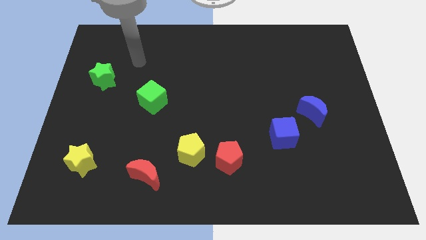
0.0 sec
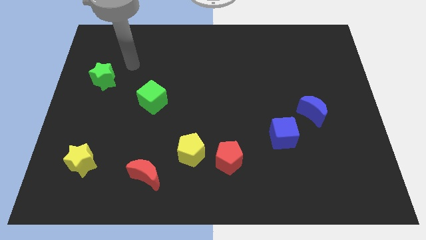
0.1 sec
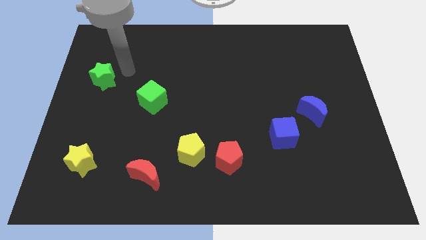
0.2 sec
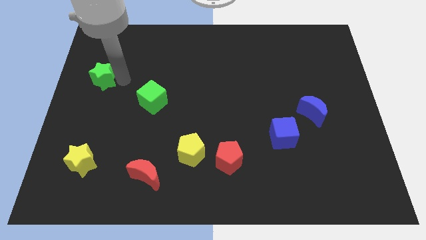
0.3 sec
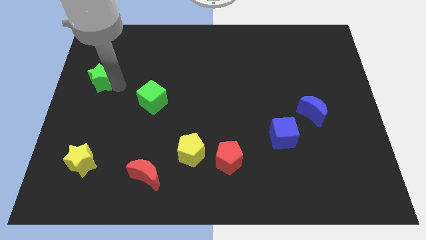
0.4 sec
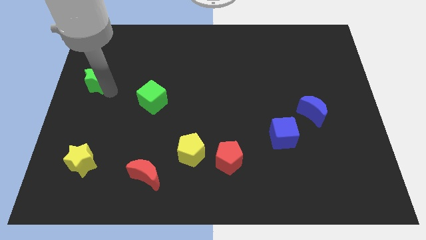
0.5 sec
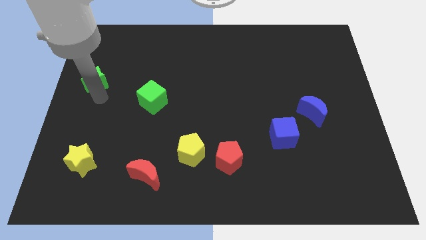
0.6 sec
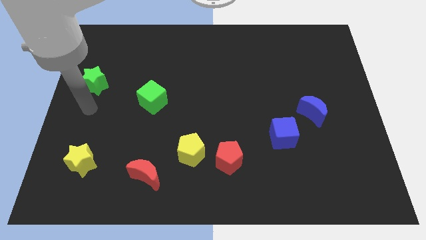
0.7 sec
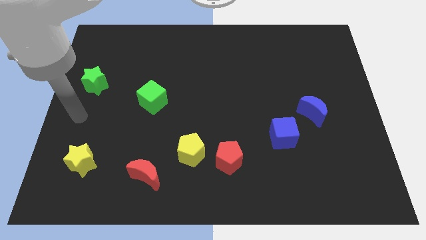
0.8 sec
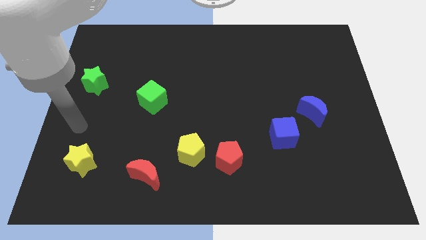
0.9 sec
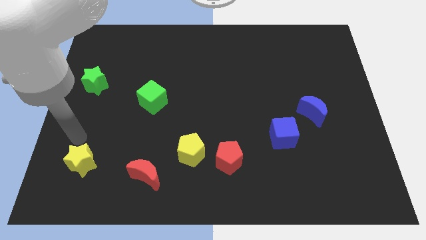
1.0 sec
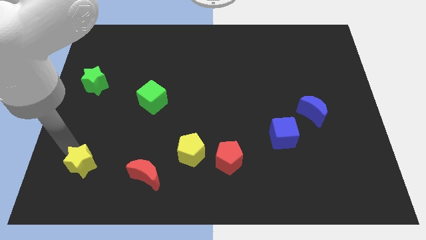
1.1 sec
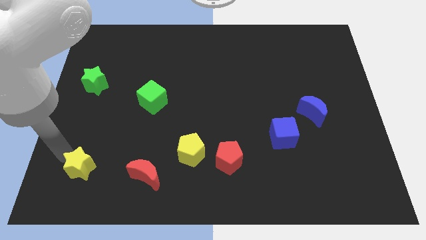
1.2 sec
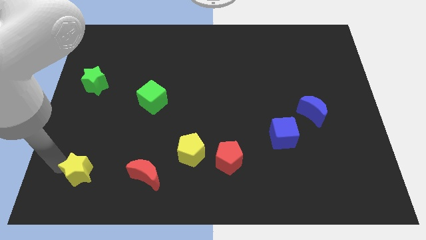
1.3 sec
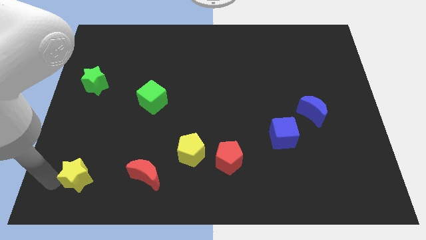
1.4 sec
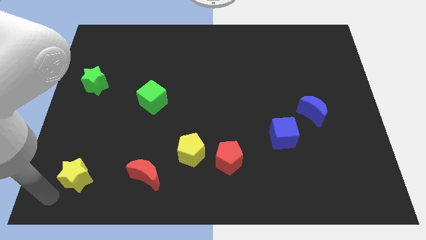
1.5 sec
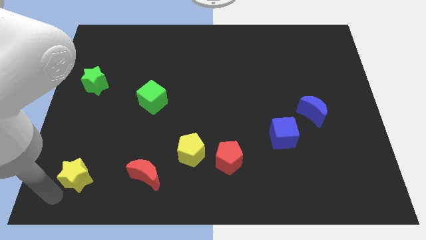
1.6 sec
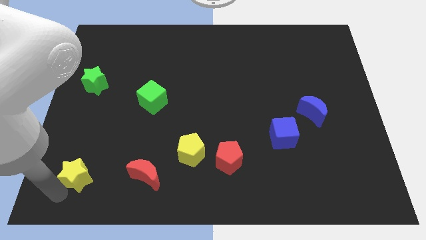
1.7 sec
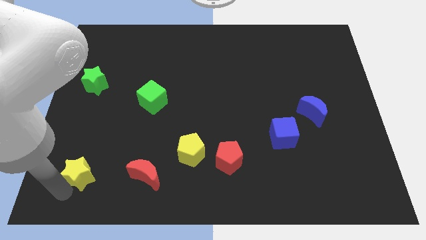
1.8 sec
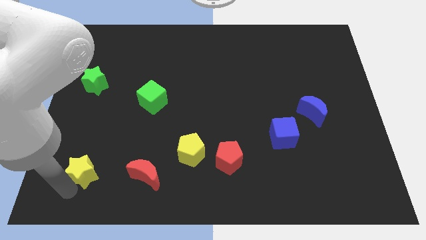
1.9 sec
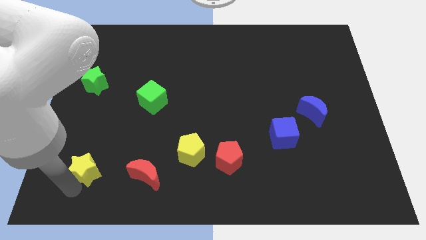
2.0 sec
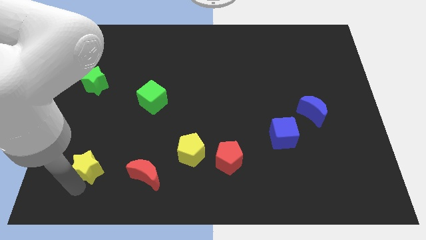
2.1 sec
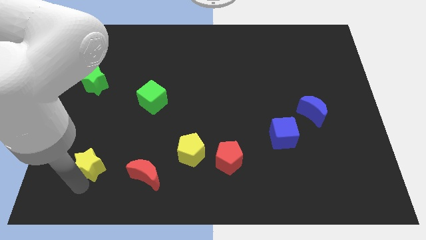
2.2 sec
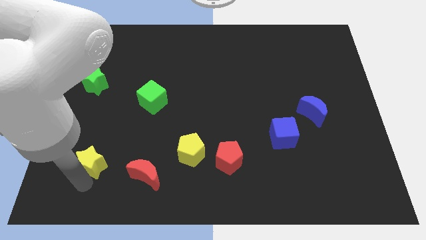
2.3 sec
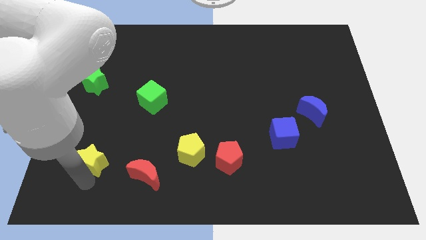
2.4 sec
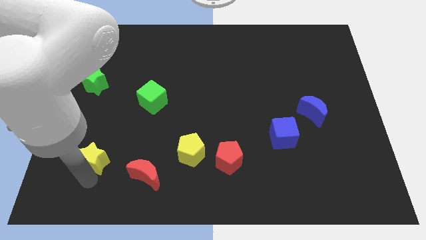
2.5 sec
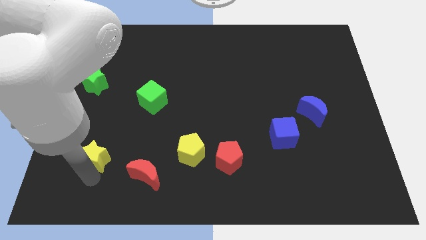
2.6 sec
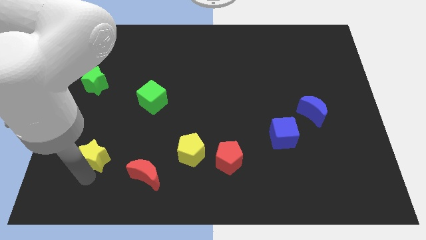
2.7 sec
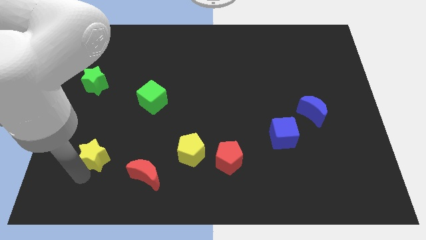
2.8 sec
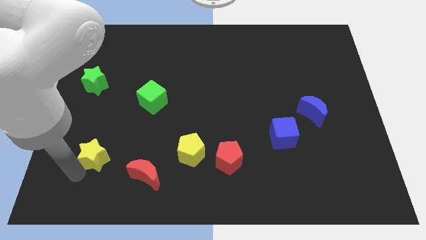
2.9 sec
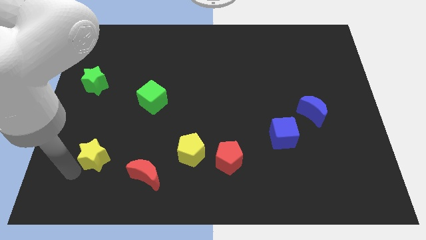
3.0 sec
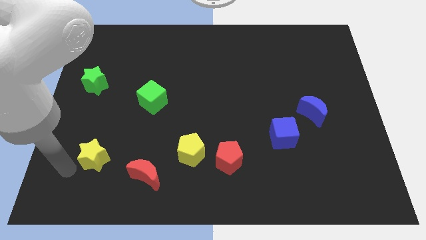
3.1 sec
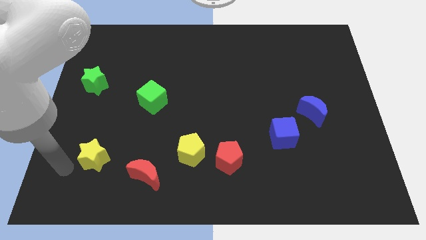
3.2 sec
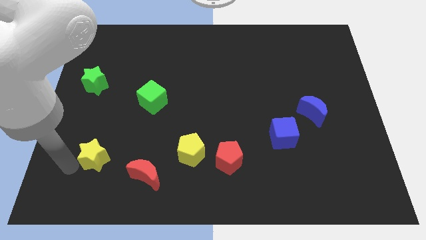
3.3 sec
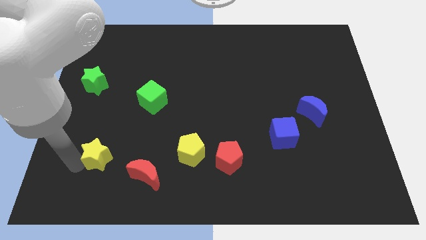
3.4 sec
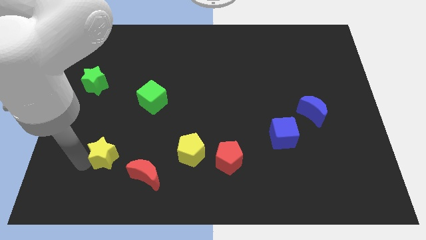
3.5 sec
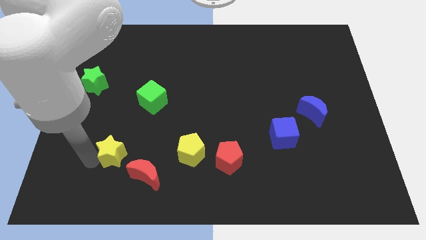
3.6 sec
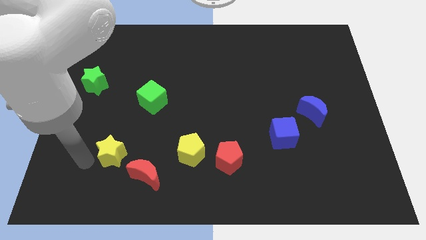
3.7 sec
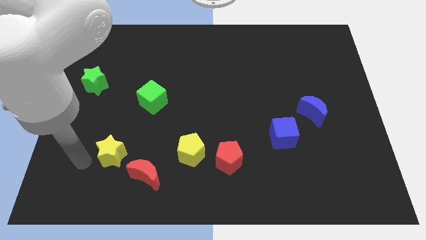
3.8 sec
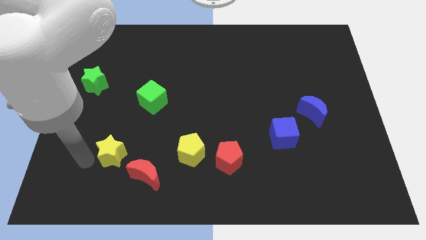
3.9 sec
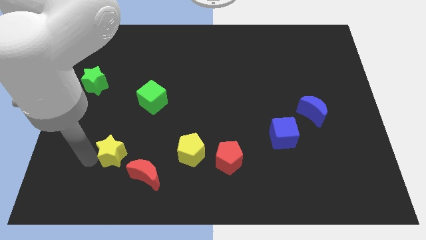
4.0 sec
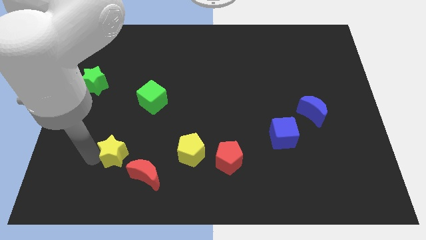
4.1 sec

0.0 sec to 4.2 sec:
push the yellow star right slightly

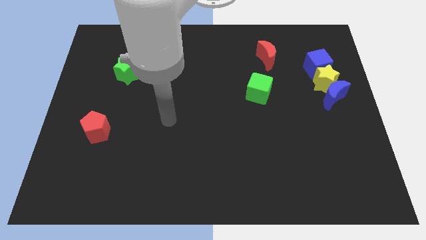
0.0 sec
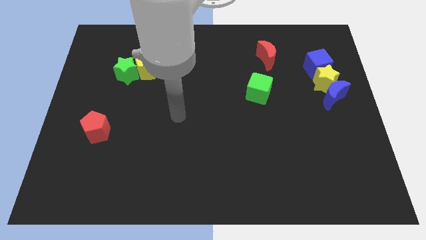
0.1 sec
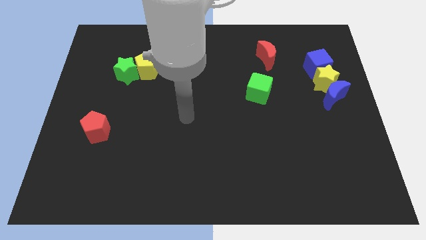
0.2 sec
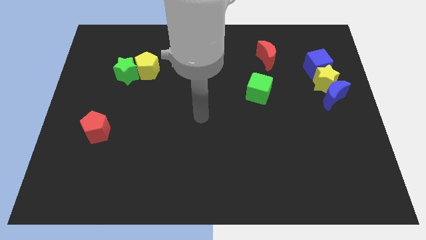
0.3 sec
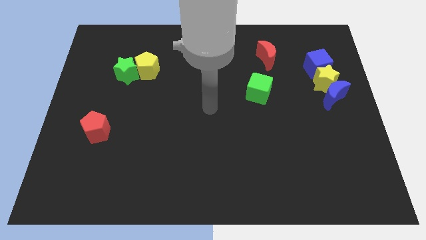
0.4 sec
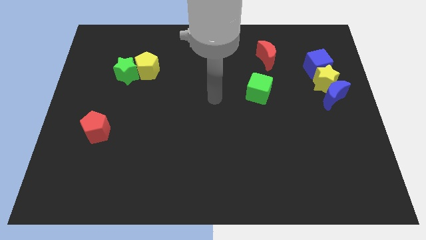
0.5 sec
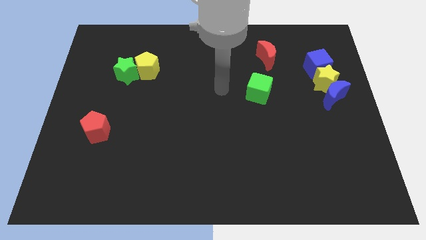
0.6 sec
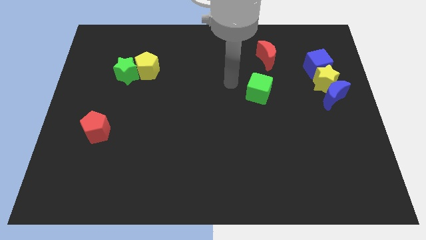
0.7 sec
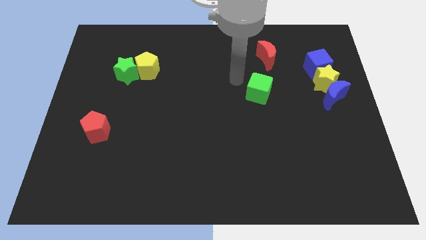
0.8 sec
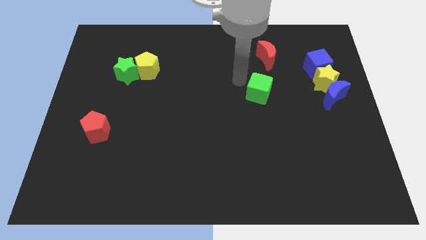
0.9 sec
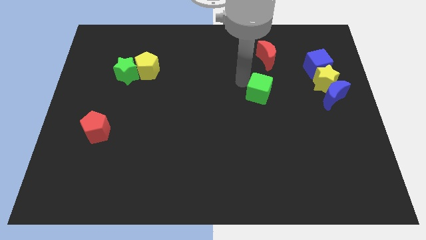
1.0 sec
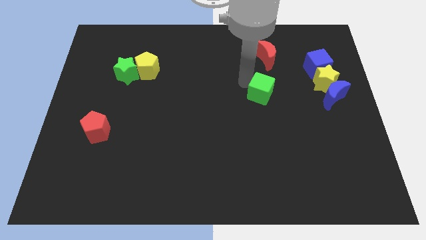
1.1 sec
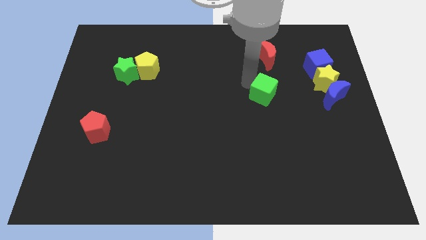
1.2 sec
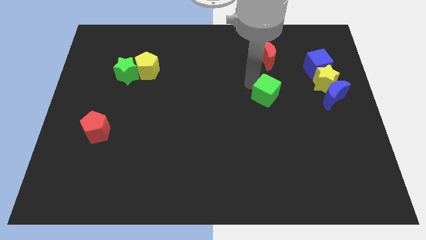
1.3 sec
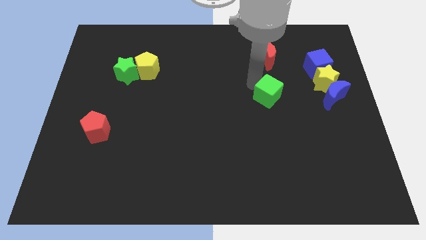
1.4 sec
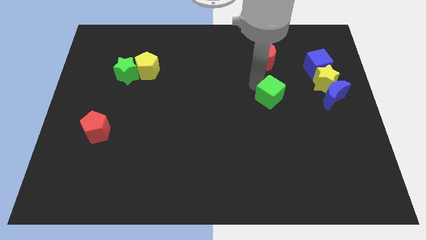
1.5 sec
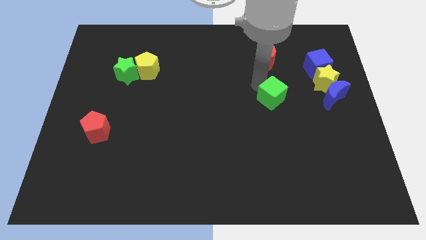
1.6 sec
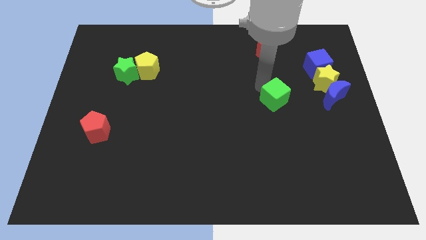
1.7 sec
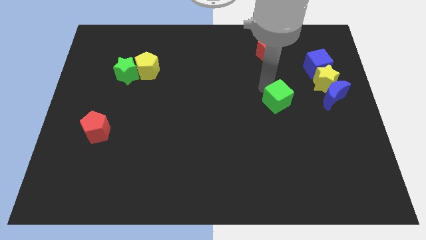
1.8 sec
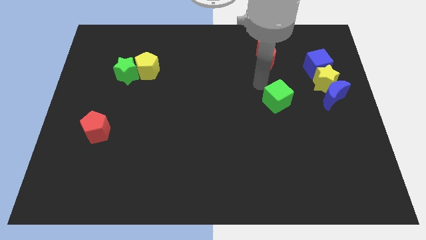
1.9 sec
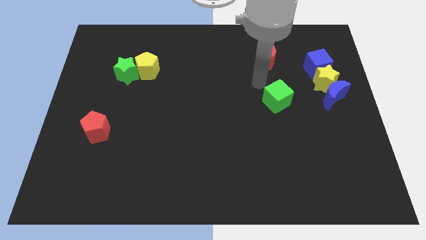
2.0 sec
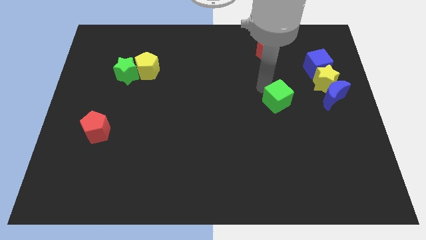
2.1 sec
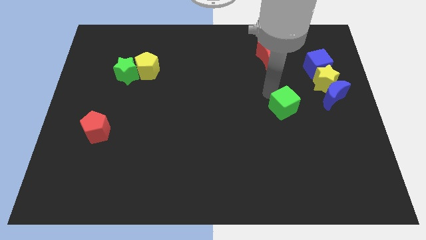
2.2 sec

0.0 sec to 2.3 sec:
push the green cube a little down and to the right diagonally

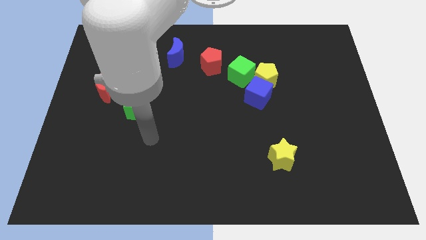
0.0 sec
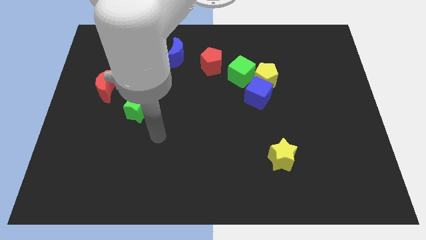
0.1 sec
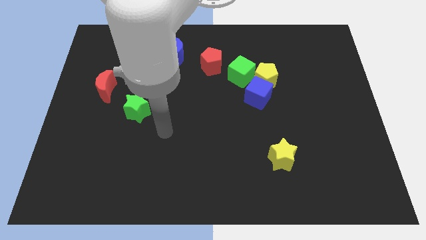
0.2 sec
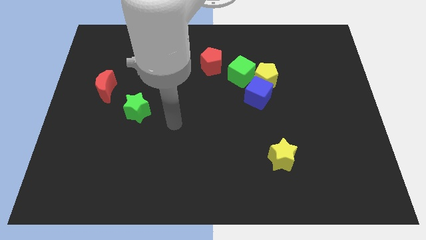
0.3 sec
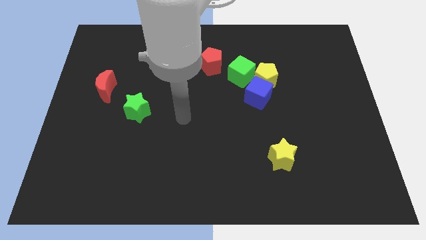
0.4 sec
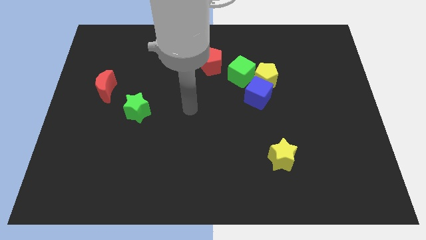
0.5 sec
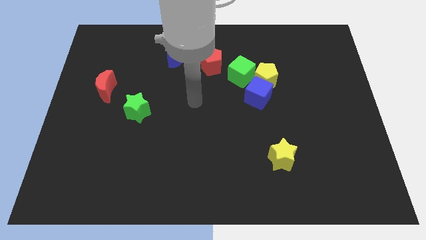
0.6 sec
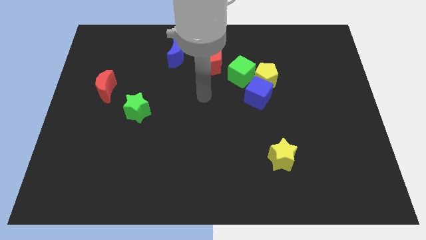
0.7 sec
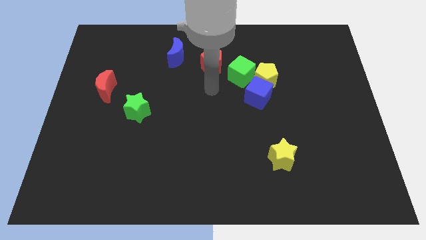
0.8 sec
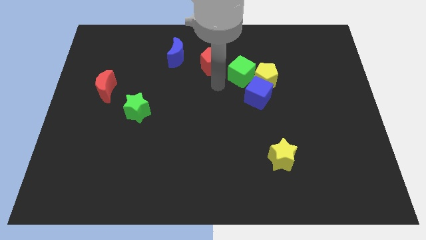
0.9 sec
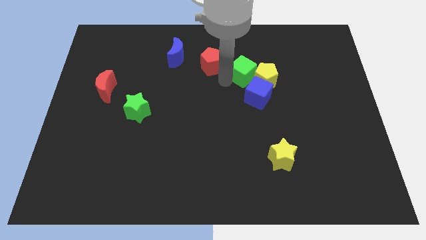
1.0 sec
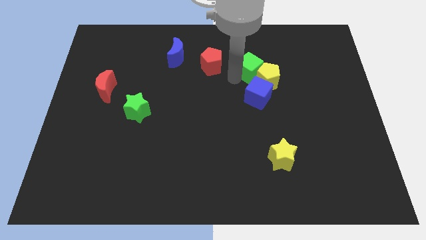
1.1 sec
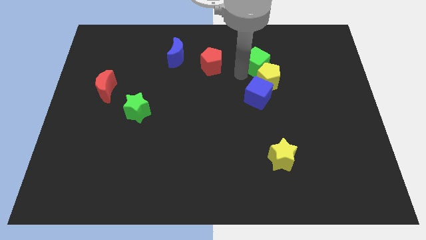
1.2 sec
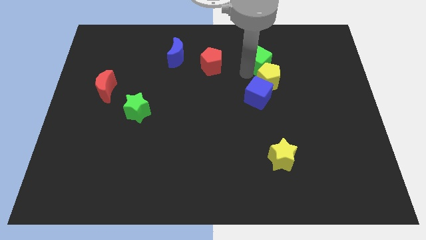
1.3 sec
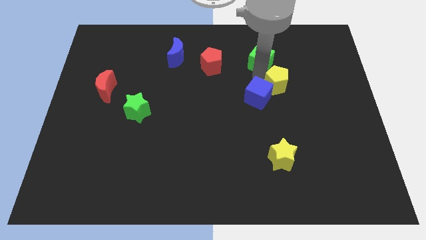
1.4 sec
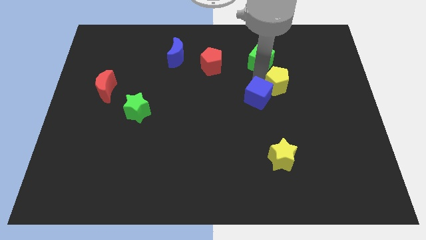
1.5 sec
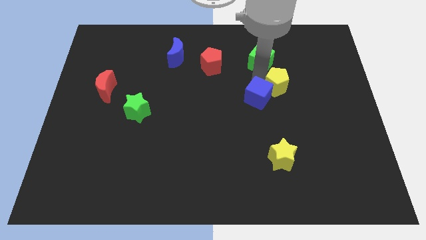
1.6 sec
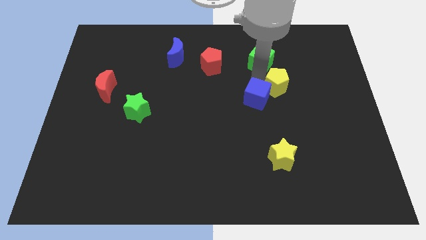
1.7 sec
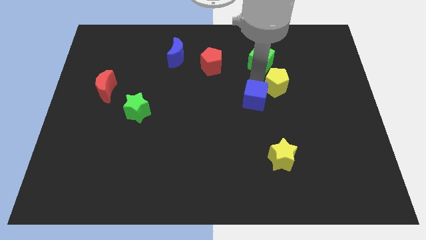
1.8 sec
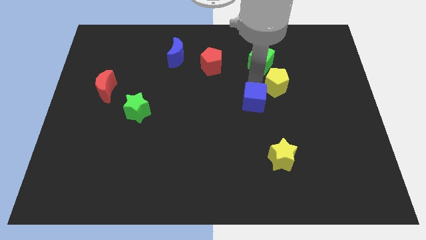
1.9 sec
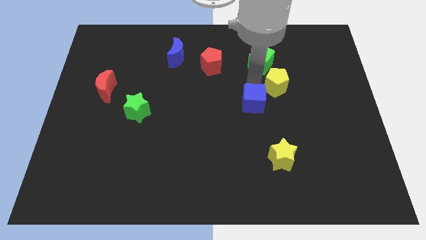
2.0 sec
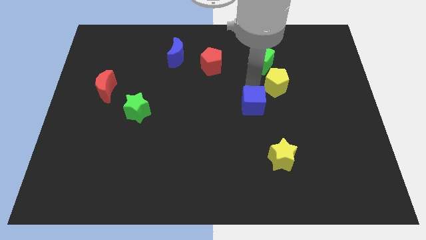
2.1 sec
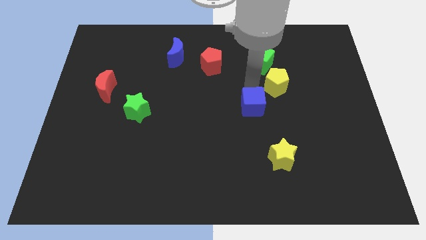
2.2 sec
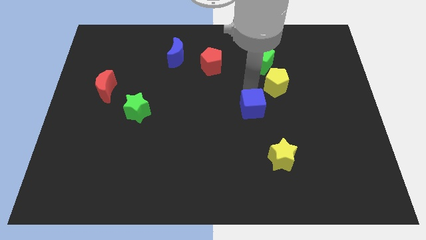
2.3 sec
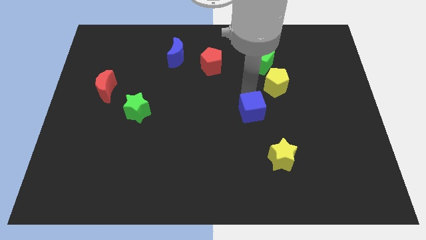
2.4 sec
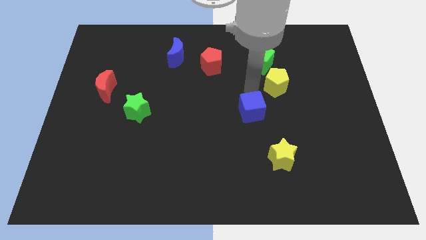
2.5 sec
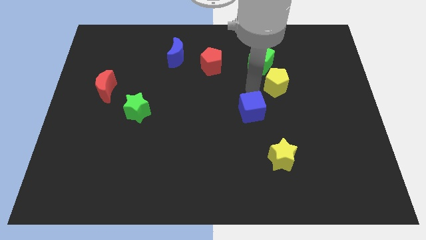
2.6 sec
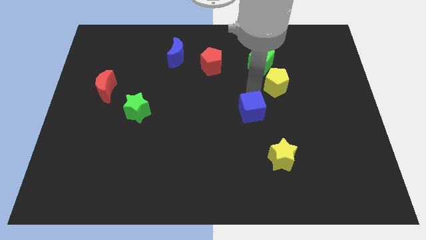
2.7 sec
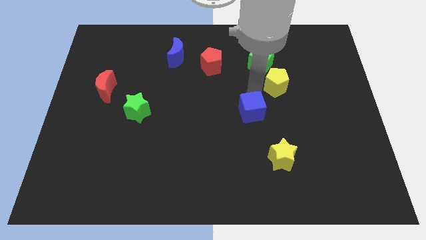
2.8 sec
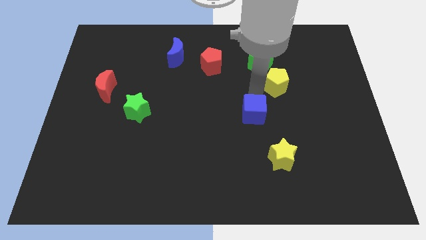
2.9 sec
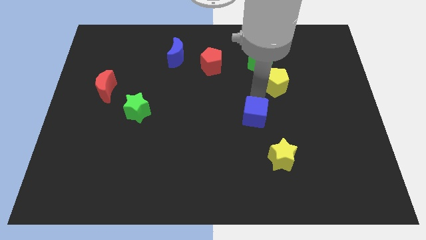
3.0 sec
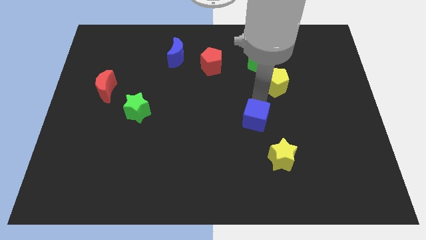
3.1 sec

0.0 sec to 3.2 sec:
slide the blue cube down a bit
